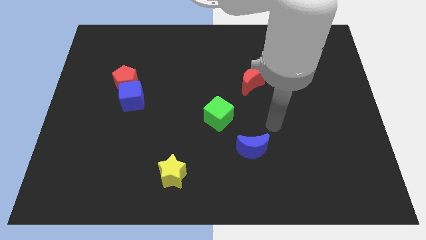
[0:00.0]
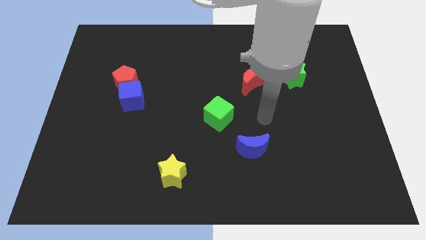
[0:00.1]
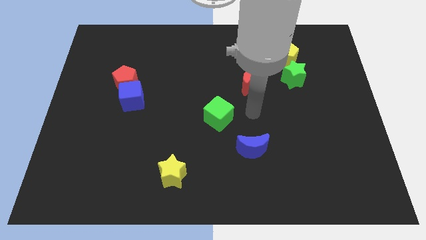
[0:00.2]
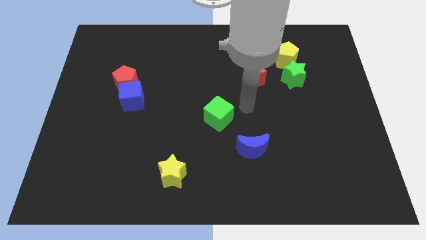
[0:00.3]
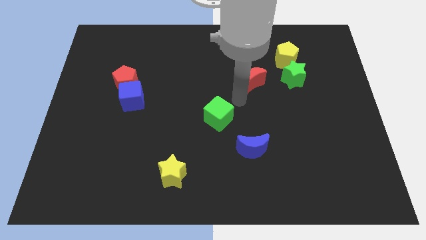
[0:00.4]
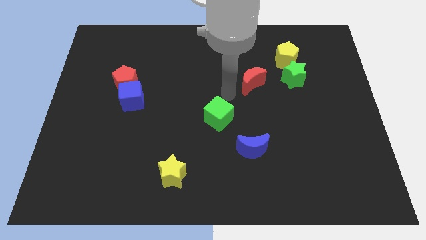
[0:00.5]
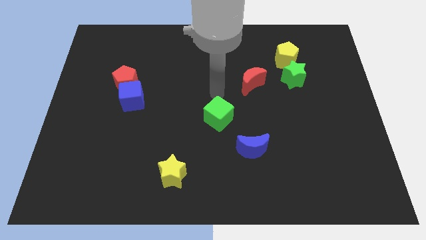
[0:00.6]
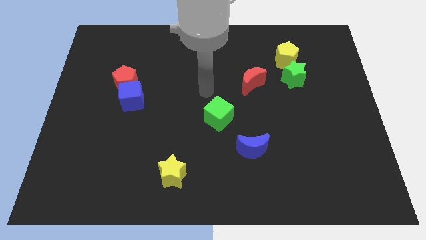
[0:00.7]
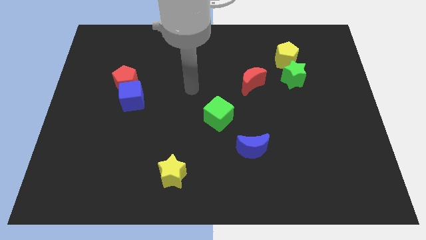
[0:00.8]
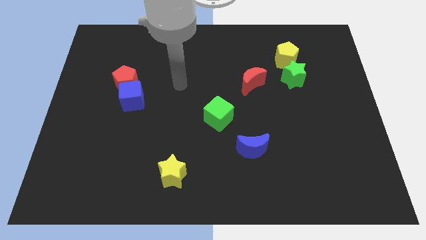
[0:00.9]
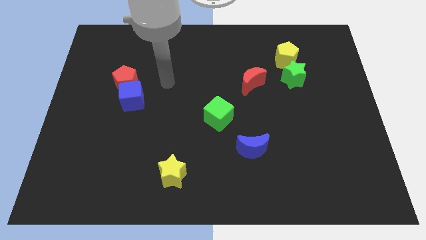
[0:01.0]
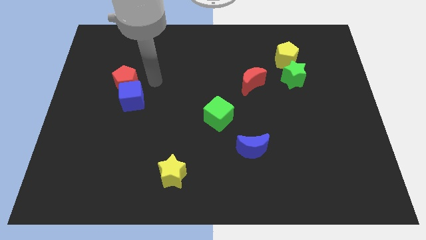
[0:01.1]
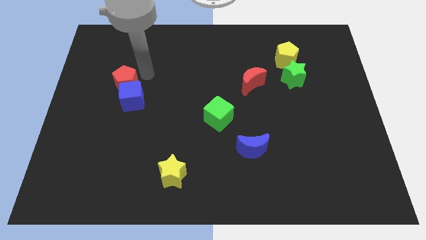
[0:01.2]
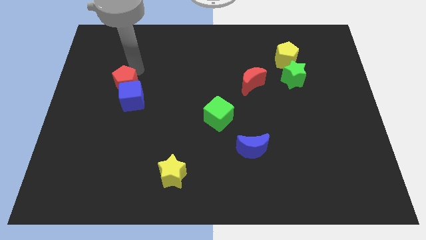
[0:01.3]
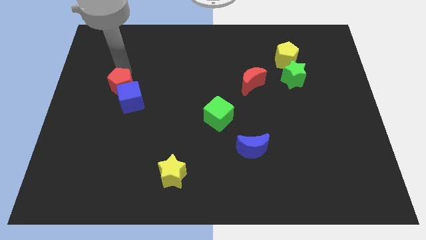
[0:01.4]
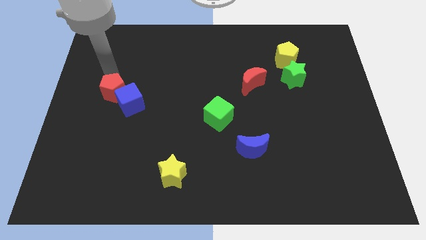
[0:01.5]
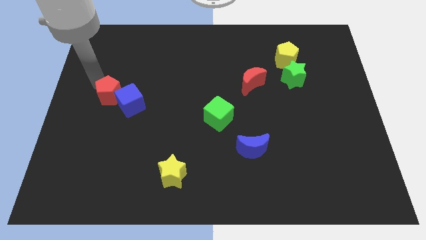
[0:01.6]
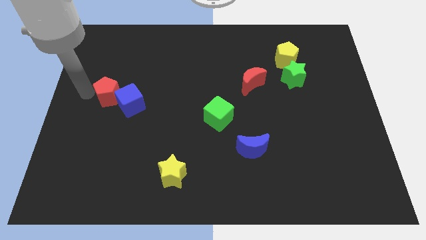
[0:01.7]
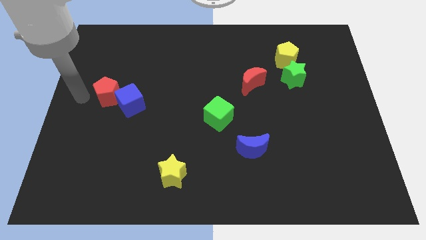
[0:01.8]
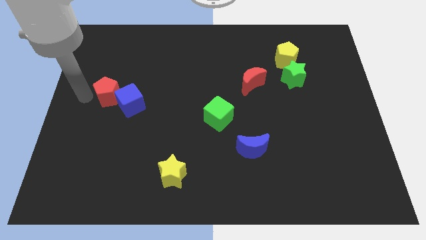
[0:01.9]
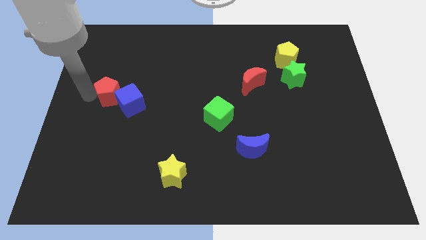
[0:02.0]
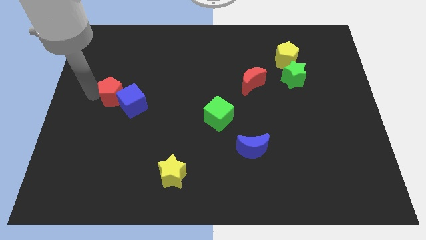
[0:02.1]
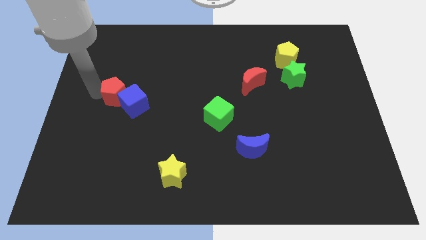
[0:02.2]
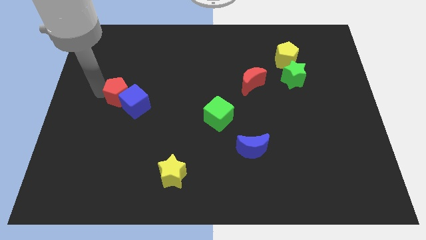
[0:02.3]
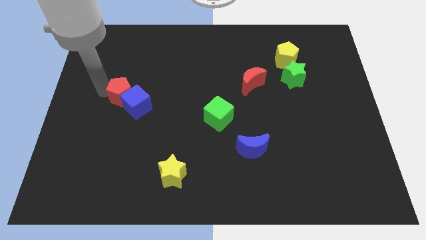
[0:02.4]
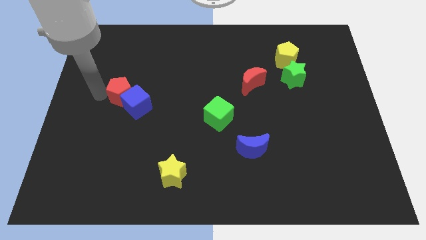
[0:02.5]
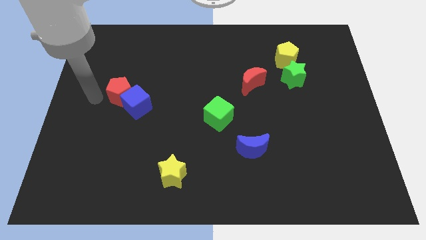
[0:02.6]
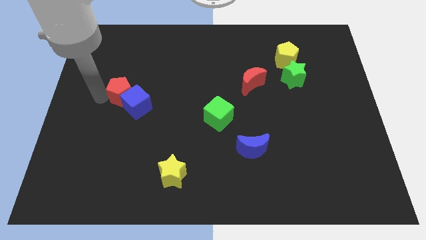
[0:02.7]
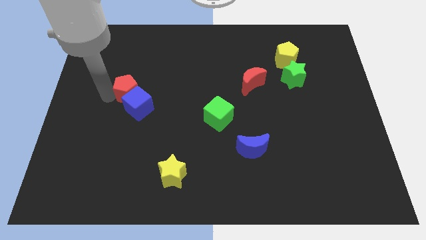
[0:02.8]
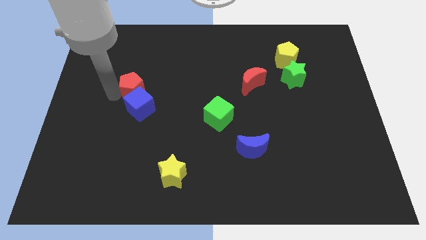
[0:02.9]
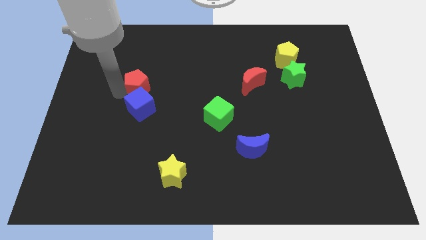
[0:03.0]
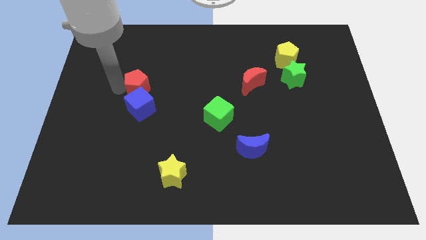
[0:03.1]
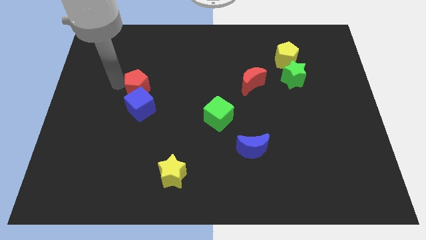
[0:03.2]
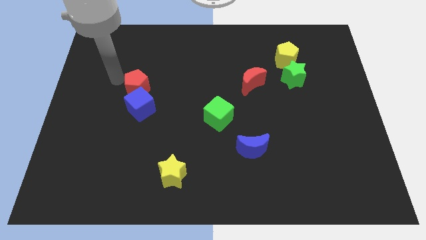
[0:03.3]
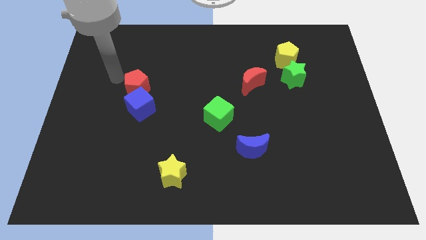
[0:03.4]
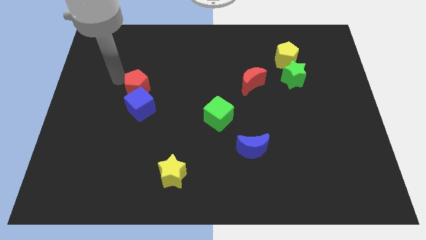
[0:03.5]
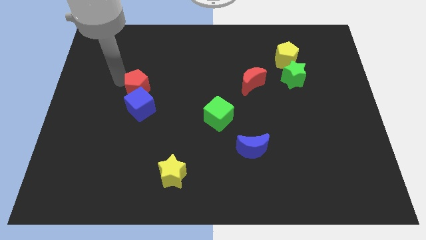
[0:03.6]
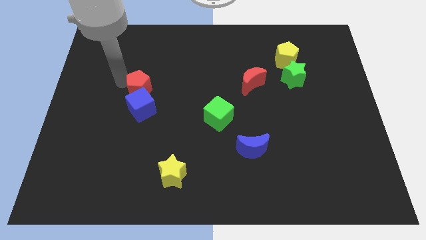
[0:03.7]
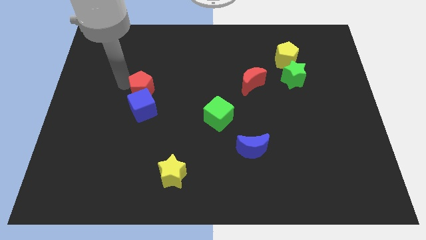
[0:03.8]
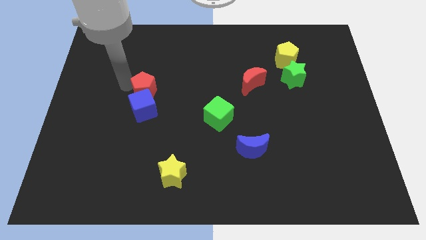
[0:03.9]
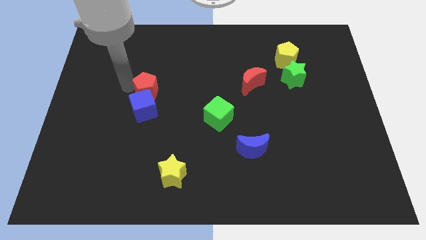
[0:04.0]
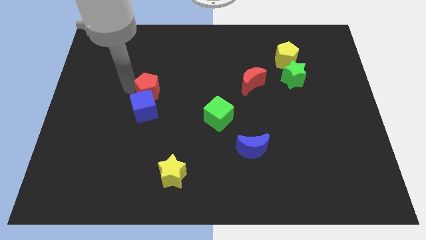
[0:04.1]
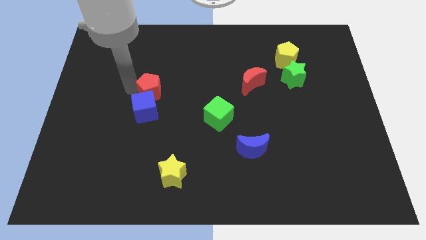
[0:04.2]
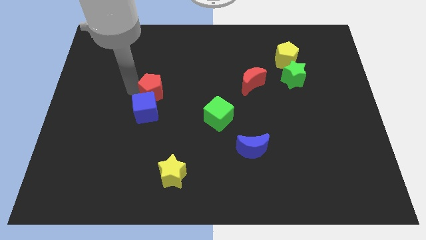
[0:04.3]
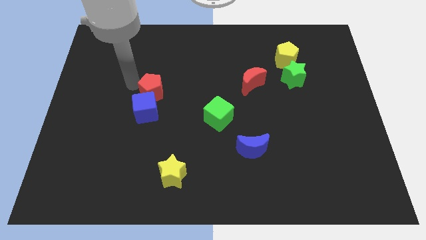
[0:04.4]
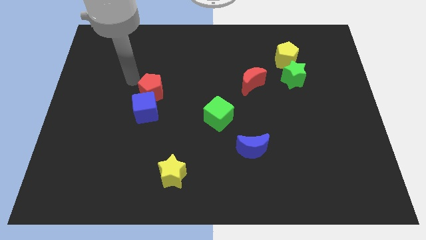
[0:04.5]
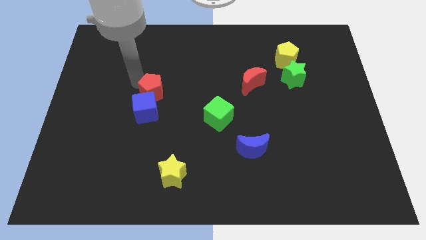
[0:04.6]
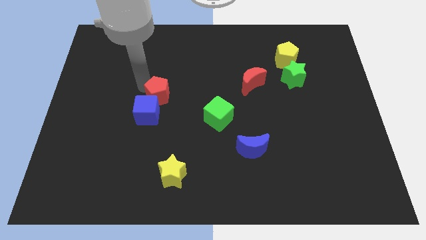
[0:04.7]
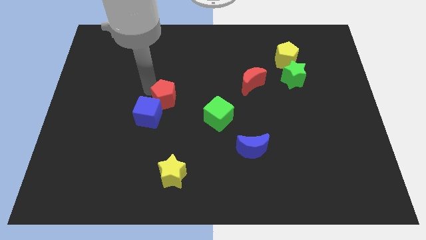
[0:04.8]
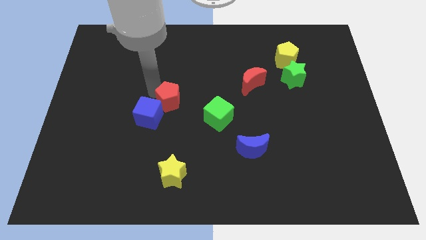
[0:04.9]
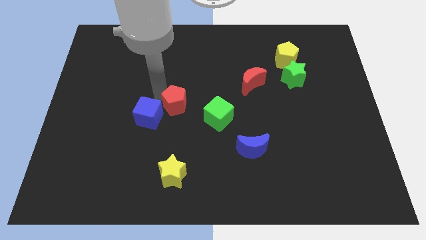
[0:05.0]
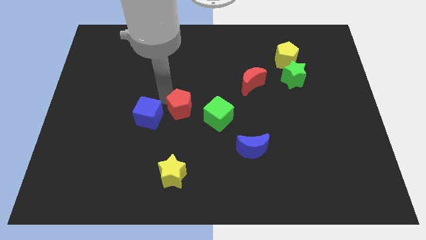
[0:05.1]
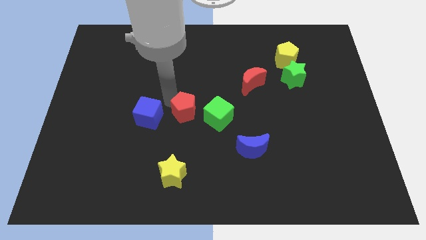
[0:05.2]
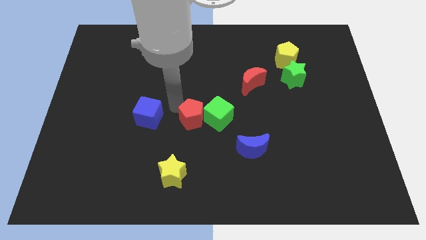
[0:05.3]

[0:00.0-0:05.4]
push the red pentagon next to the green cube

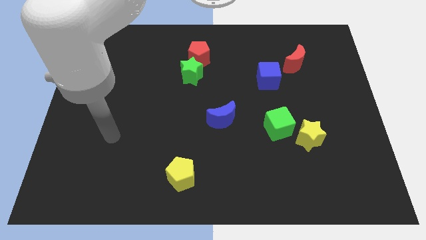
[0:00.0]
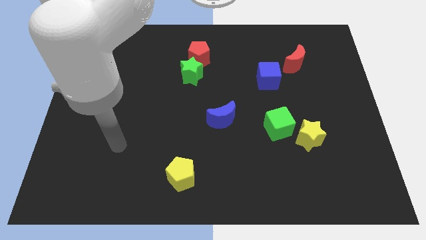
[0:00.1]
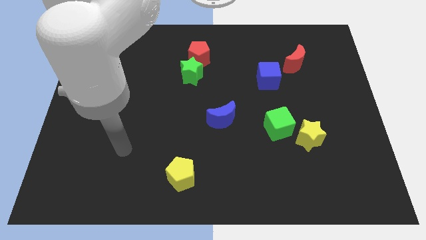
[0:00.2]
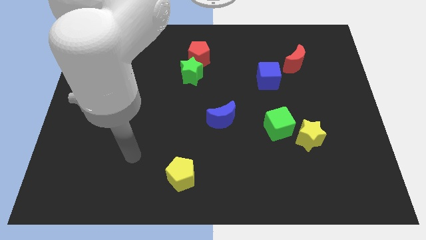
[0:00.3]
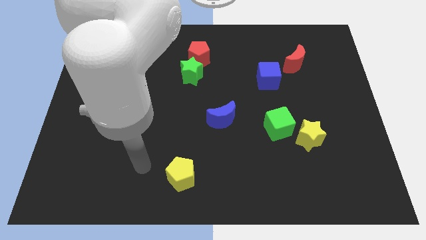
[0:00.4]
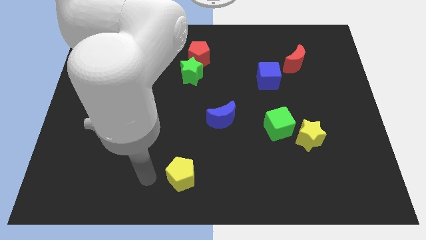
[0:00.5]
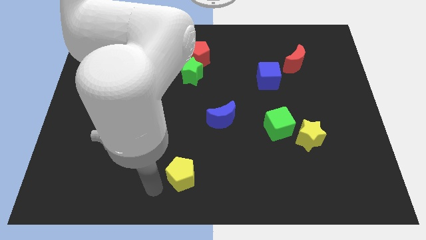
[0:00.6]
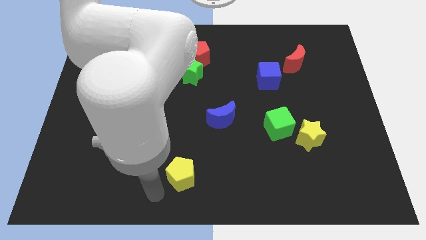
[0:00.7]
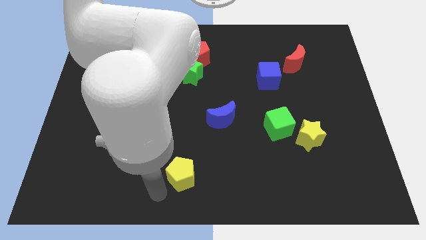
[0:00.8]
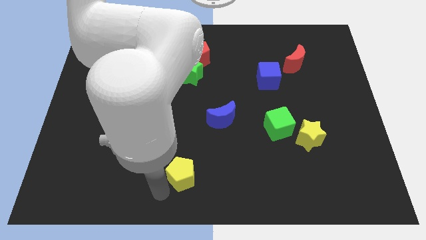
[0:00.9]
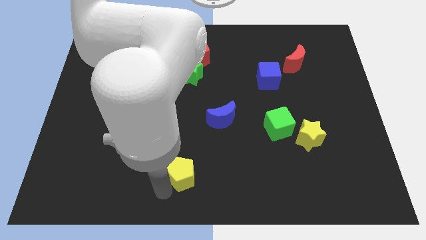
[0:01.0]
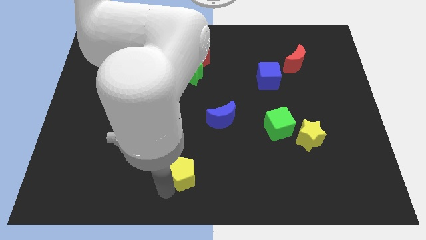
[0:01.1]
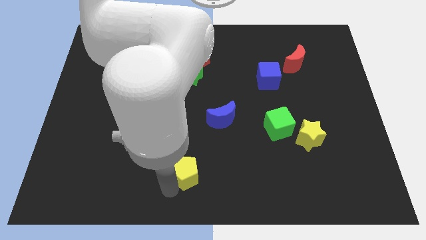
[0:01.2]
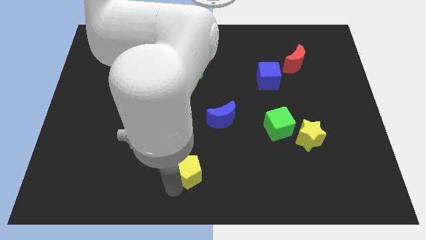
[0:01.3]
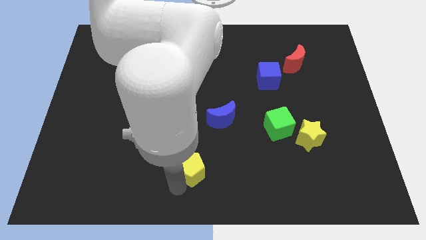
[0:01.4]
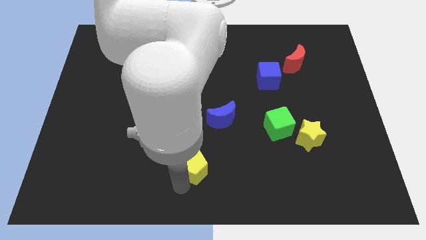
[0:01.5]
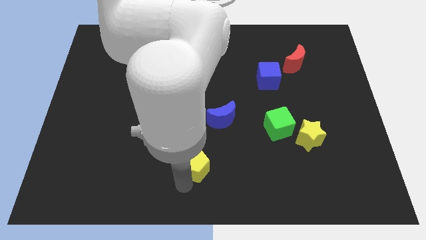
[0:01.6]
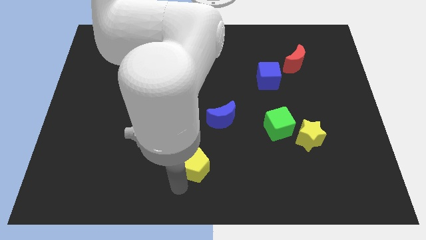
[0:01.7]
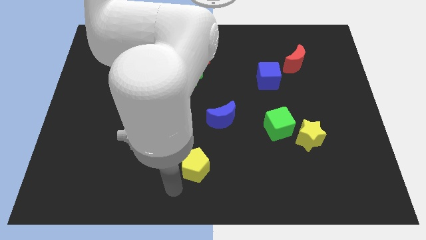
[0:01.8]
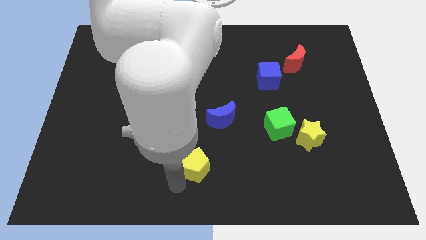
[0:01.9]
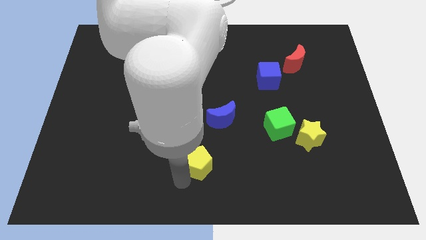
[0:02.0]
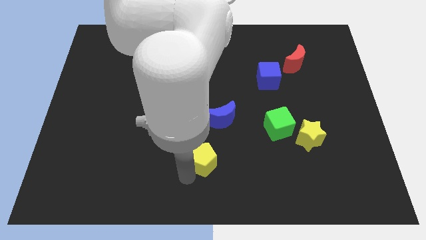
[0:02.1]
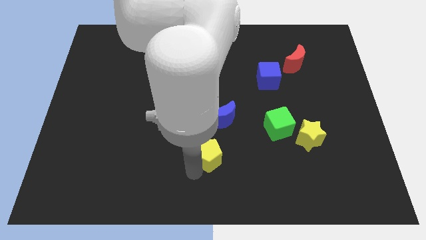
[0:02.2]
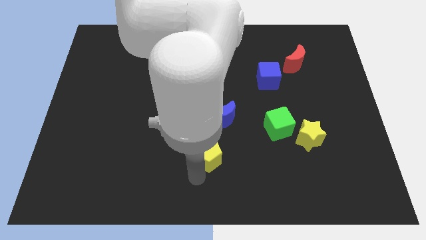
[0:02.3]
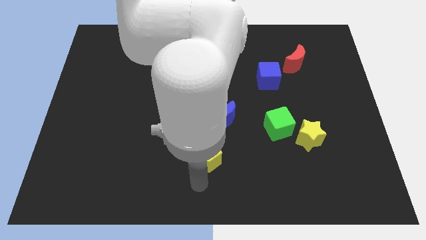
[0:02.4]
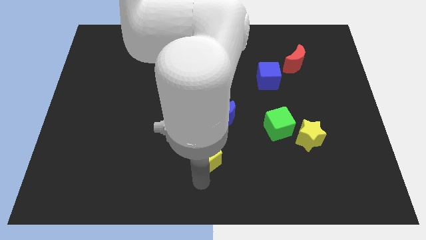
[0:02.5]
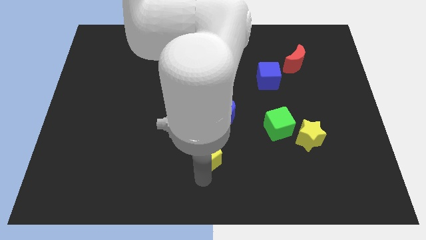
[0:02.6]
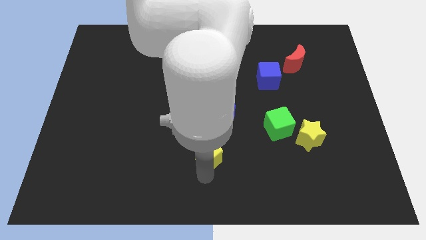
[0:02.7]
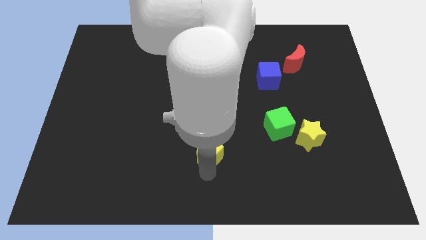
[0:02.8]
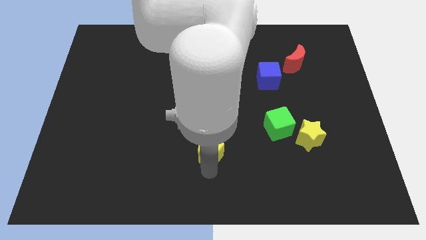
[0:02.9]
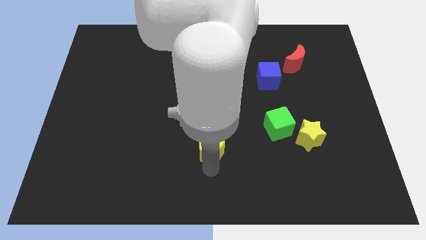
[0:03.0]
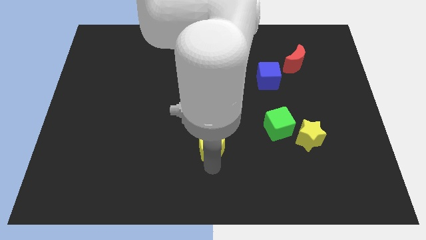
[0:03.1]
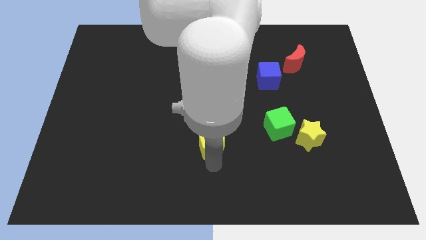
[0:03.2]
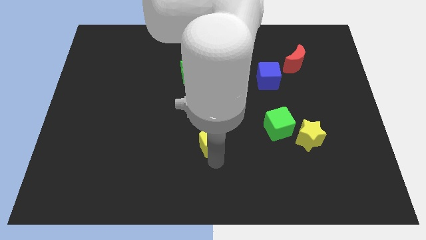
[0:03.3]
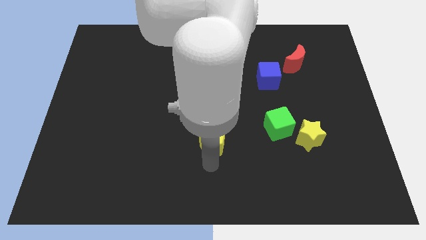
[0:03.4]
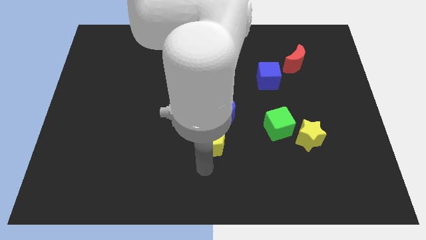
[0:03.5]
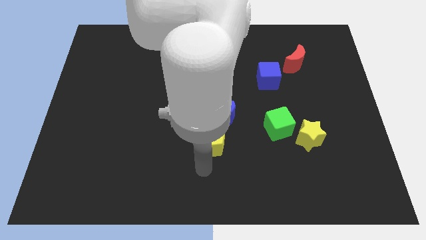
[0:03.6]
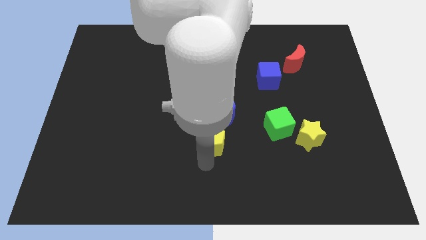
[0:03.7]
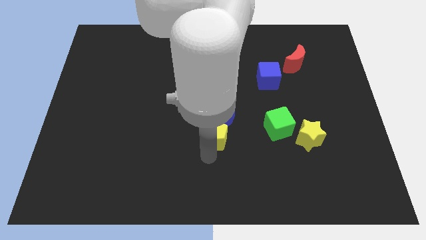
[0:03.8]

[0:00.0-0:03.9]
slide the yellow pentagon to the blue moon
